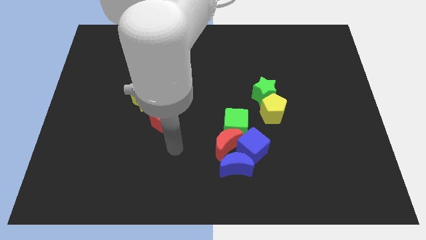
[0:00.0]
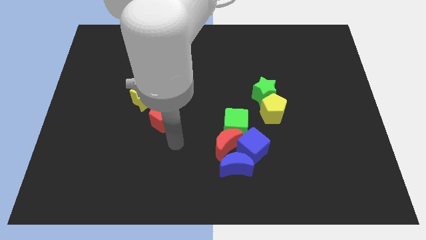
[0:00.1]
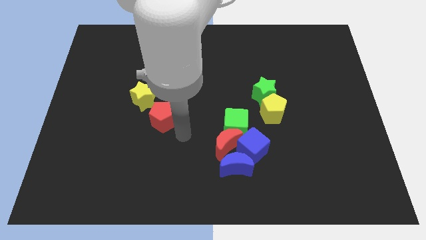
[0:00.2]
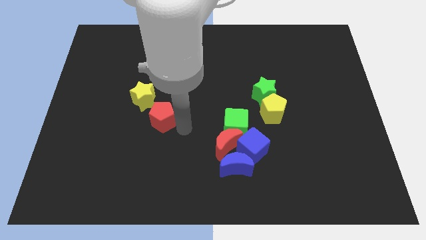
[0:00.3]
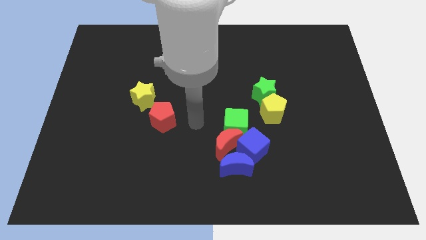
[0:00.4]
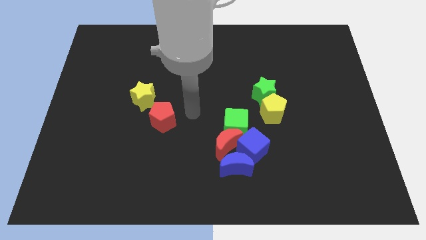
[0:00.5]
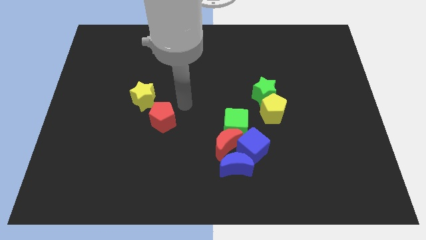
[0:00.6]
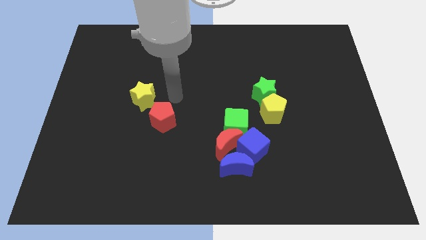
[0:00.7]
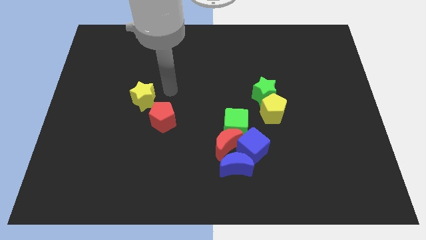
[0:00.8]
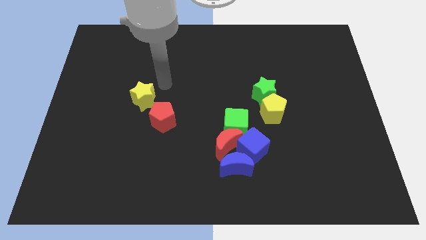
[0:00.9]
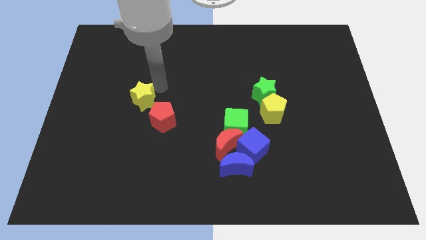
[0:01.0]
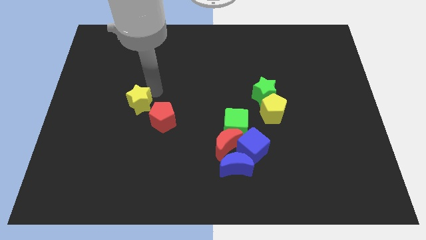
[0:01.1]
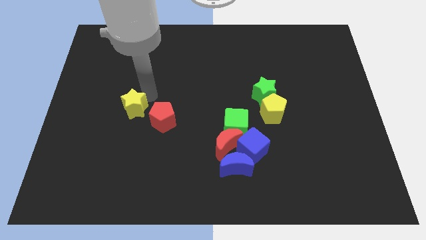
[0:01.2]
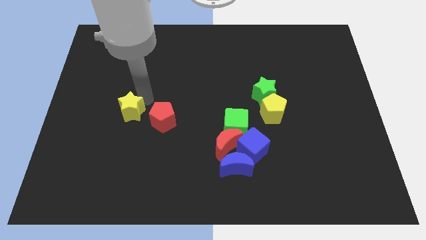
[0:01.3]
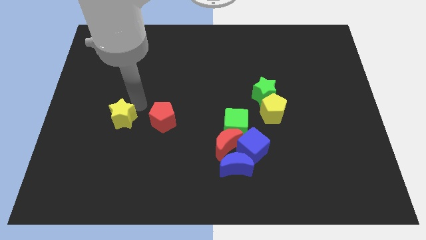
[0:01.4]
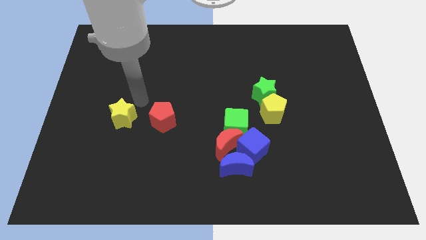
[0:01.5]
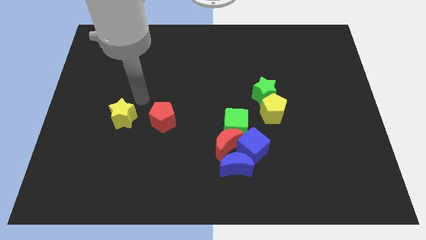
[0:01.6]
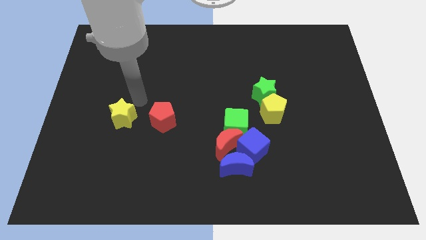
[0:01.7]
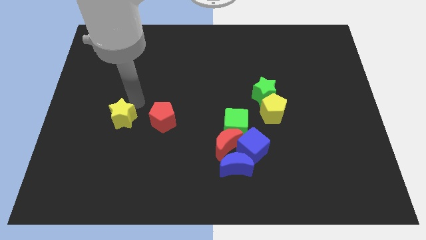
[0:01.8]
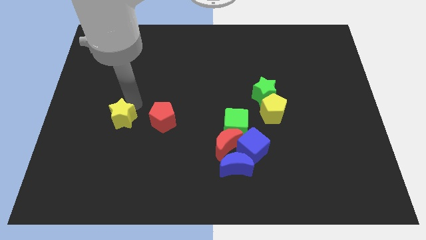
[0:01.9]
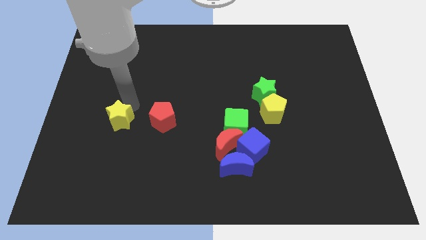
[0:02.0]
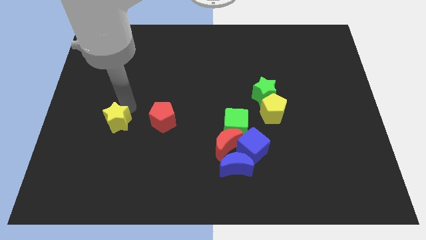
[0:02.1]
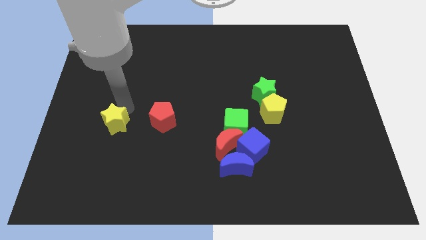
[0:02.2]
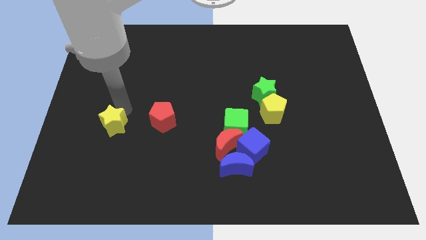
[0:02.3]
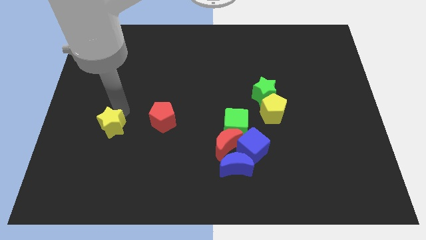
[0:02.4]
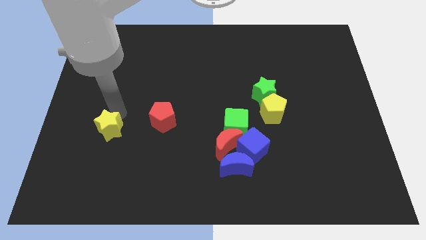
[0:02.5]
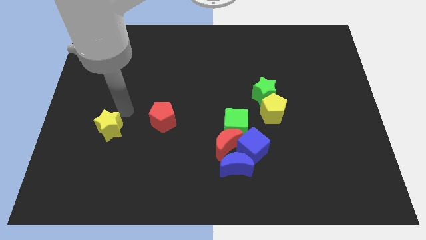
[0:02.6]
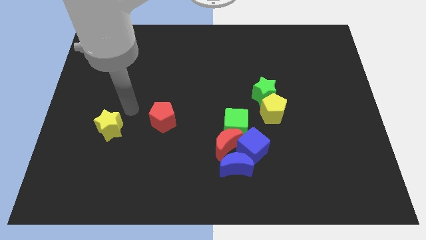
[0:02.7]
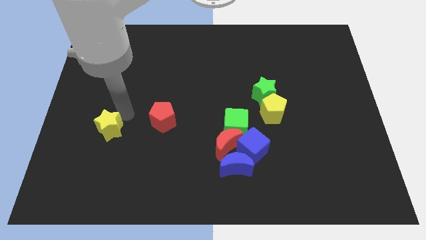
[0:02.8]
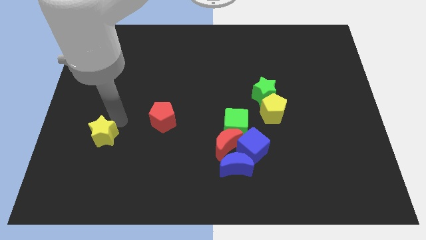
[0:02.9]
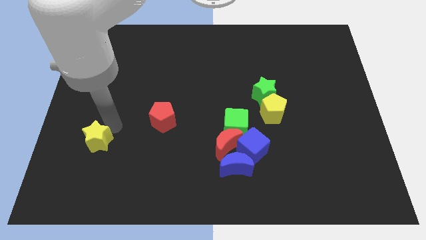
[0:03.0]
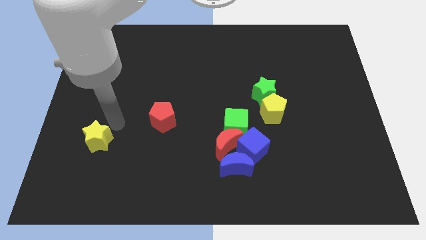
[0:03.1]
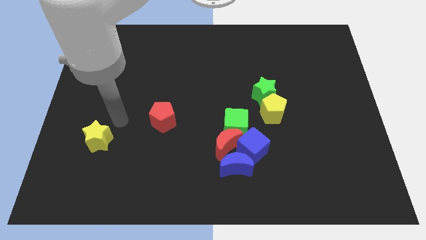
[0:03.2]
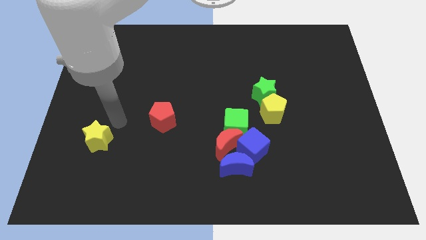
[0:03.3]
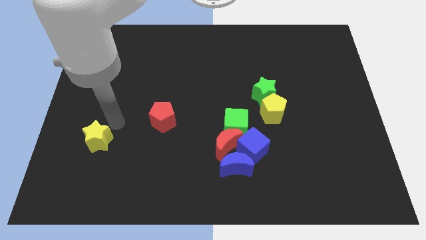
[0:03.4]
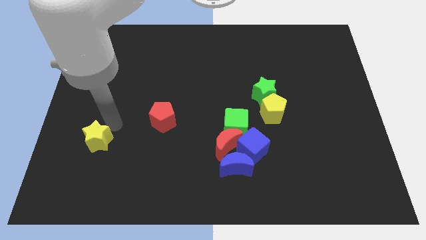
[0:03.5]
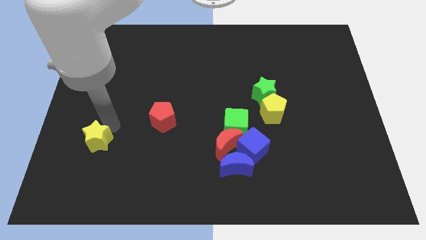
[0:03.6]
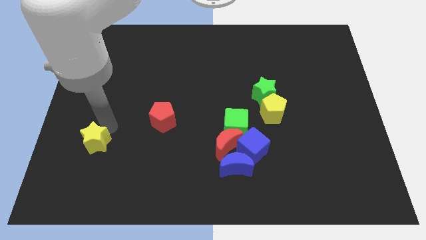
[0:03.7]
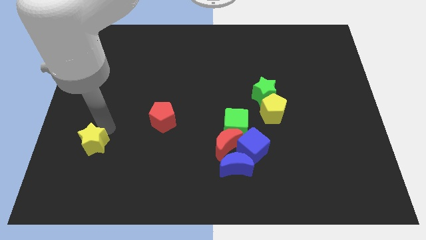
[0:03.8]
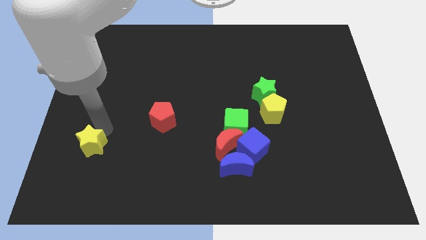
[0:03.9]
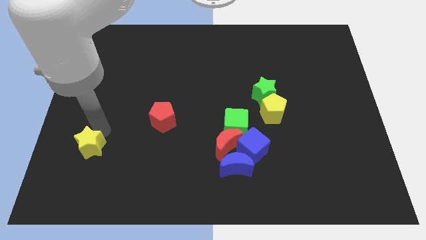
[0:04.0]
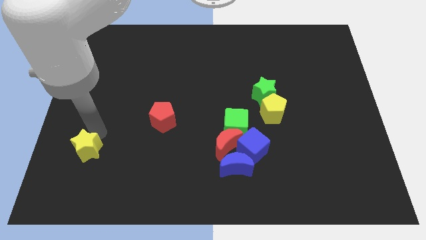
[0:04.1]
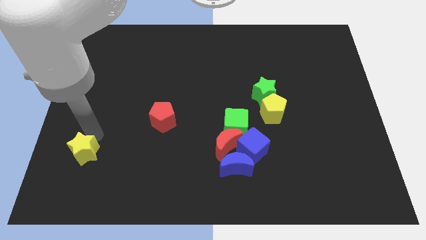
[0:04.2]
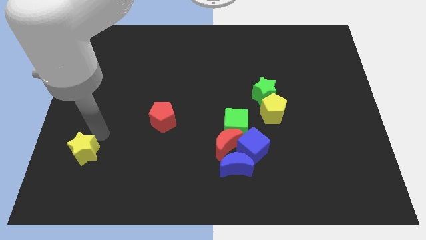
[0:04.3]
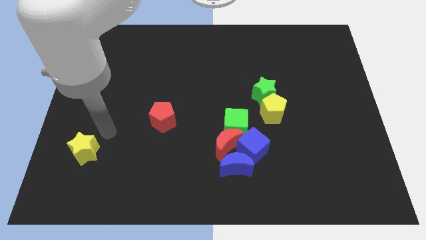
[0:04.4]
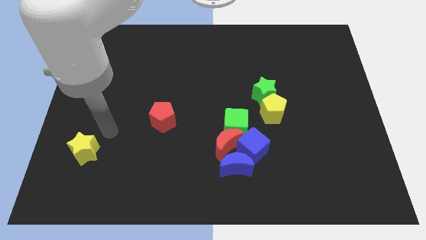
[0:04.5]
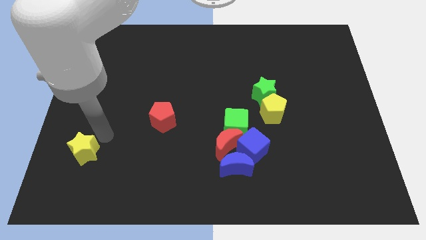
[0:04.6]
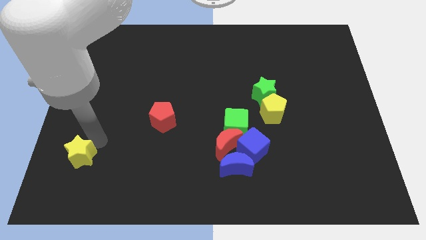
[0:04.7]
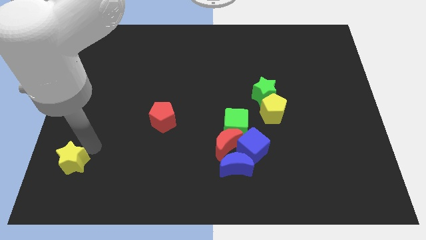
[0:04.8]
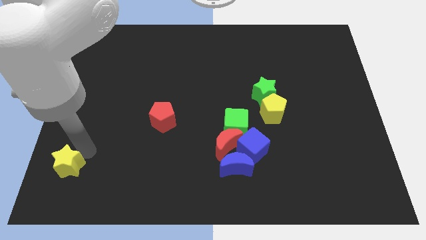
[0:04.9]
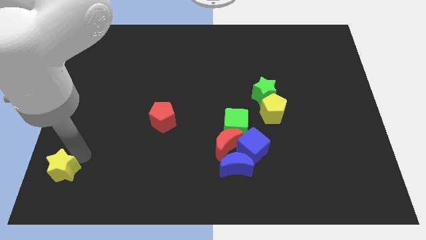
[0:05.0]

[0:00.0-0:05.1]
move the yellow star to the bottom left of the board

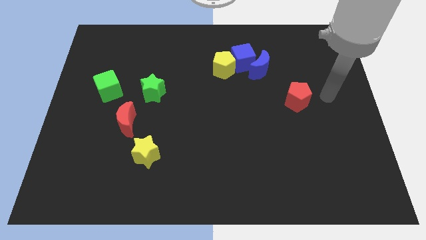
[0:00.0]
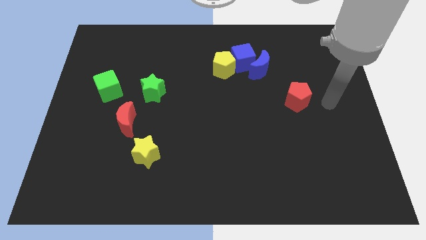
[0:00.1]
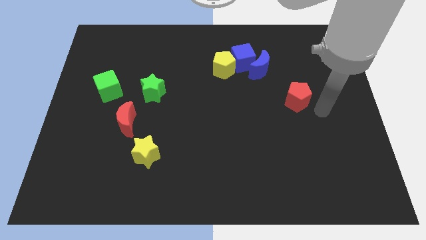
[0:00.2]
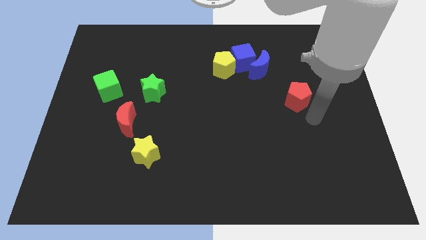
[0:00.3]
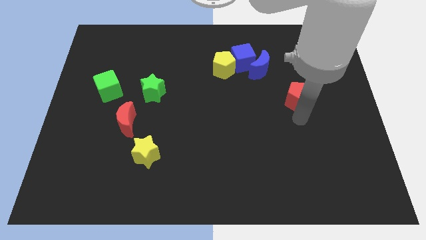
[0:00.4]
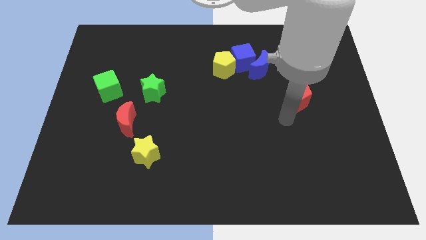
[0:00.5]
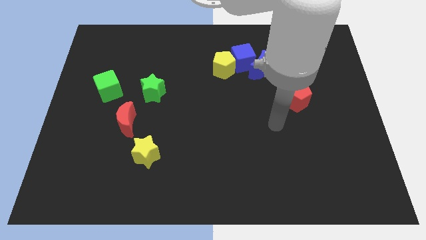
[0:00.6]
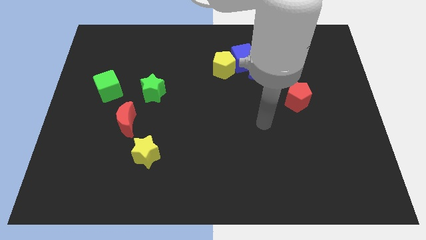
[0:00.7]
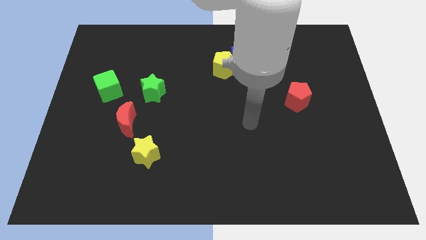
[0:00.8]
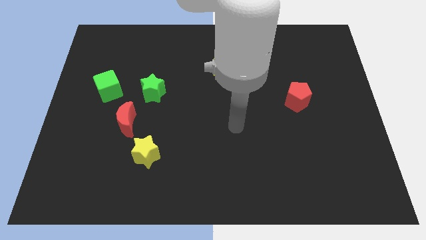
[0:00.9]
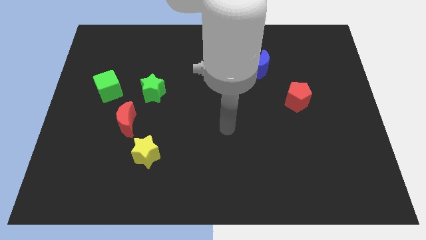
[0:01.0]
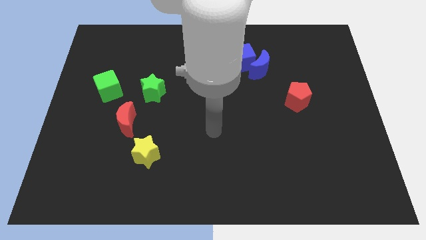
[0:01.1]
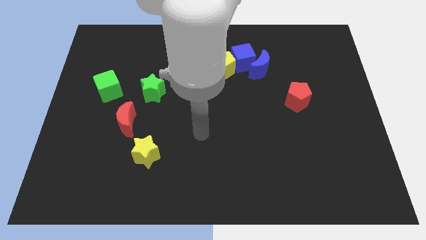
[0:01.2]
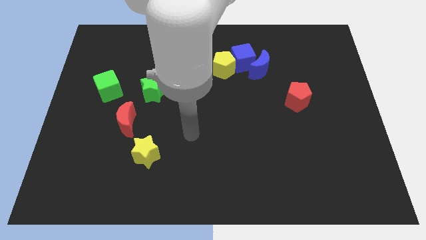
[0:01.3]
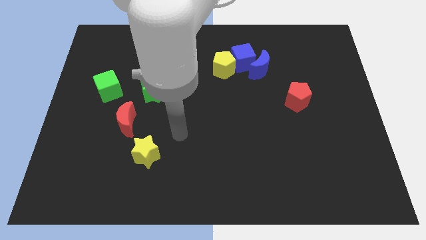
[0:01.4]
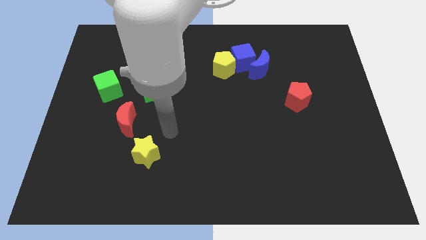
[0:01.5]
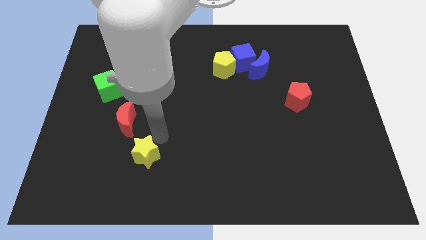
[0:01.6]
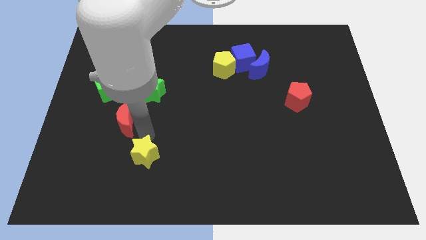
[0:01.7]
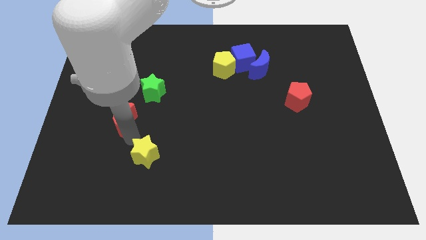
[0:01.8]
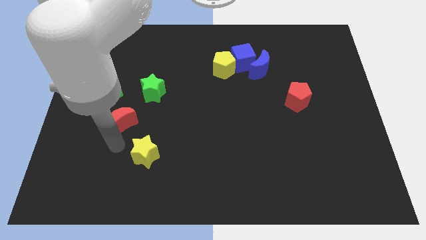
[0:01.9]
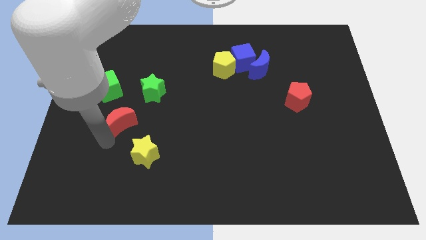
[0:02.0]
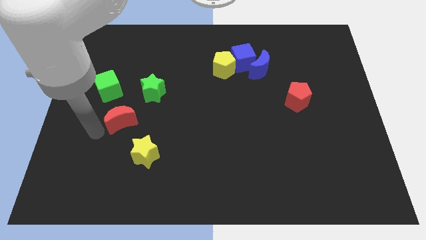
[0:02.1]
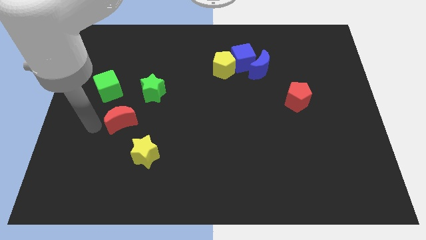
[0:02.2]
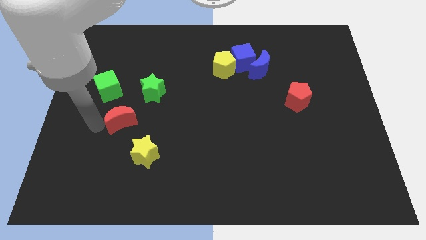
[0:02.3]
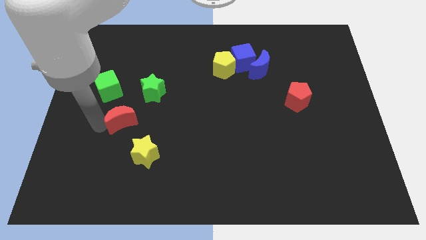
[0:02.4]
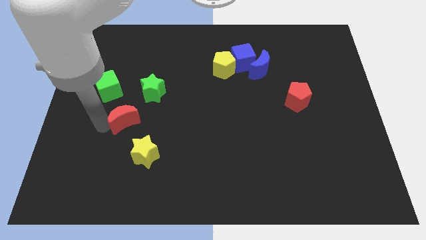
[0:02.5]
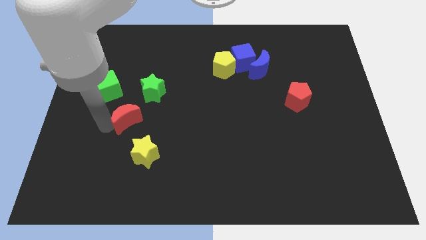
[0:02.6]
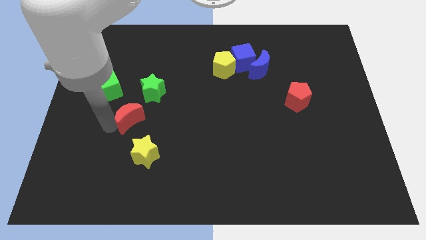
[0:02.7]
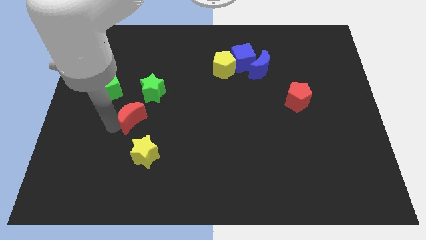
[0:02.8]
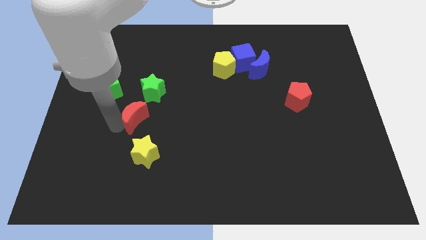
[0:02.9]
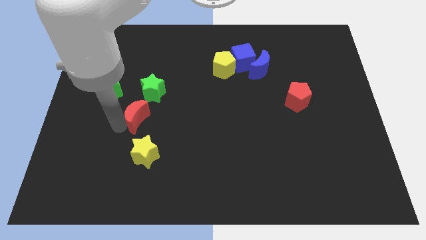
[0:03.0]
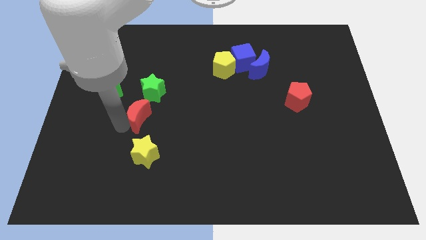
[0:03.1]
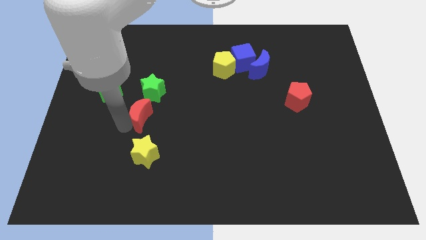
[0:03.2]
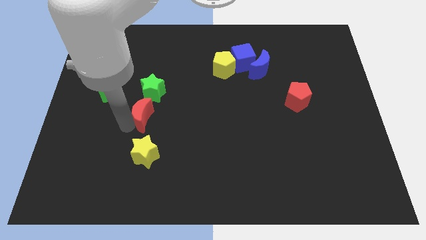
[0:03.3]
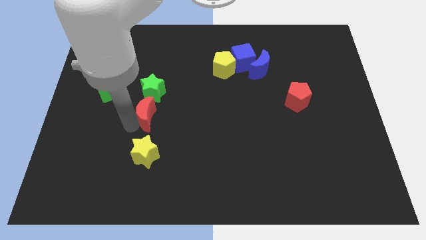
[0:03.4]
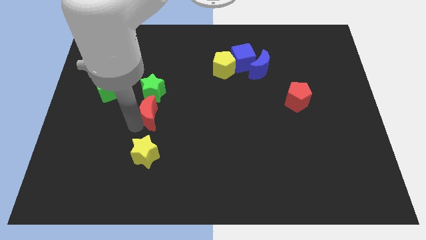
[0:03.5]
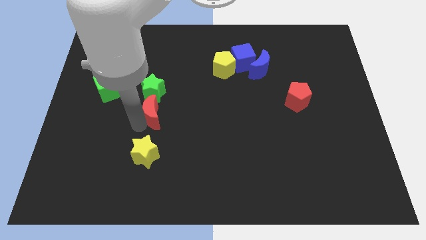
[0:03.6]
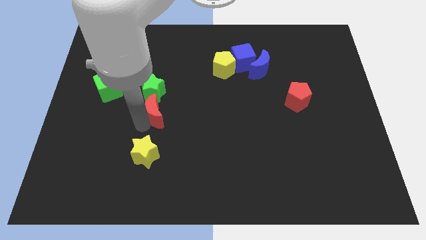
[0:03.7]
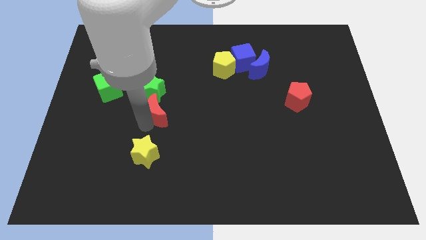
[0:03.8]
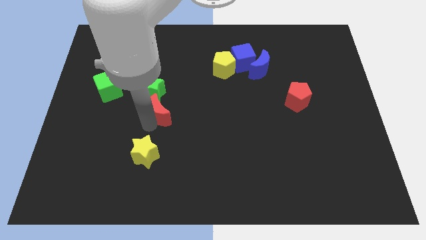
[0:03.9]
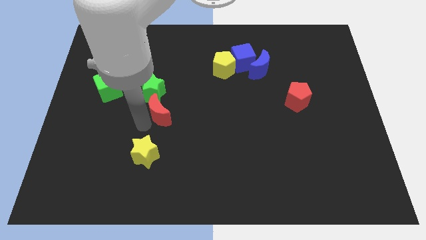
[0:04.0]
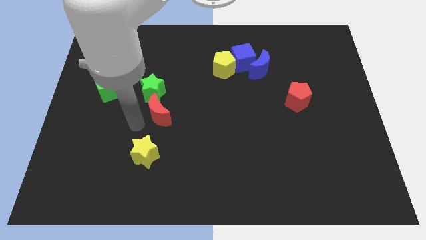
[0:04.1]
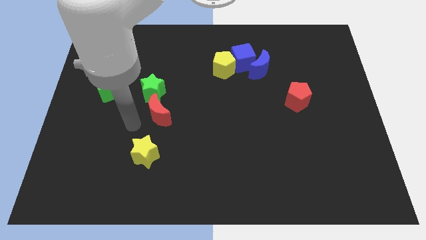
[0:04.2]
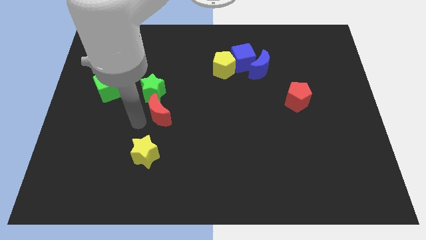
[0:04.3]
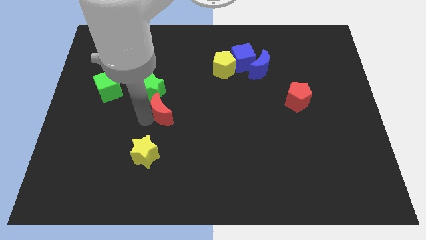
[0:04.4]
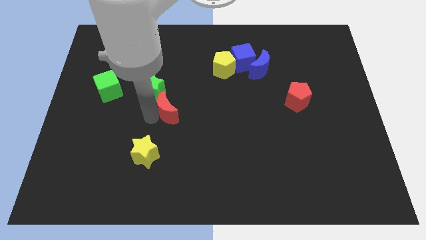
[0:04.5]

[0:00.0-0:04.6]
push the red moon to the center of the board
